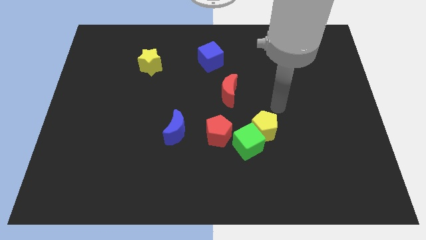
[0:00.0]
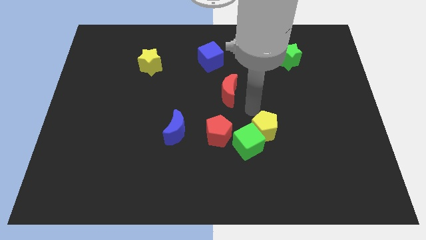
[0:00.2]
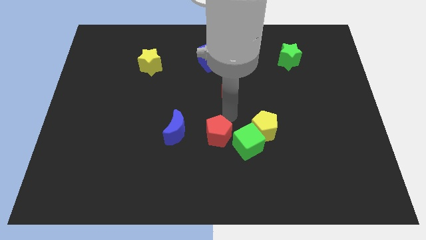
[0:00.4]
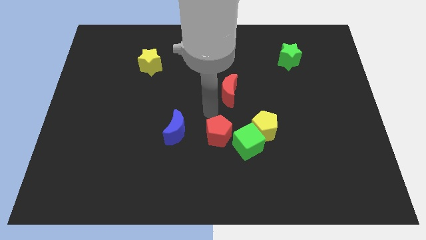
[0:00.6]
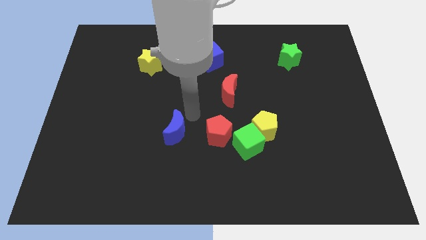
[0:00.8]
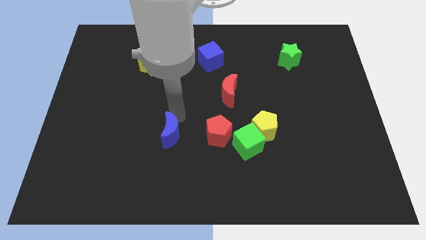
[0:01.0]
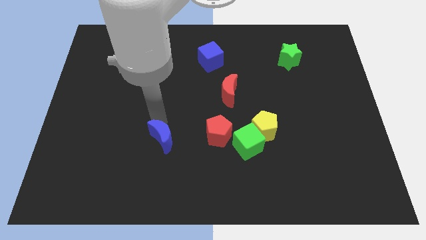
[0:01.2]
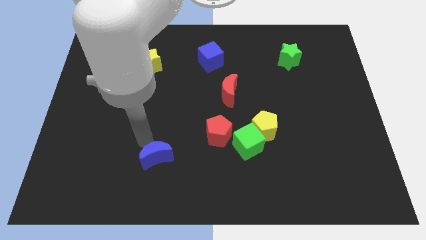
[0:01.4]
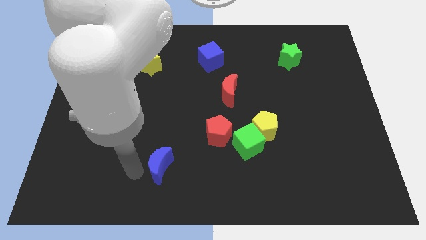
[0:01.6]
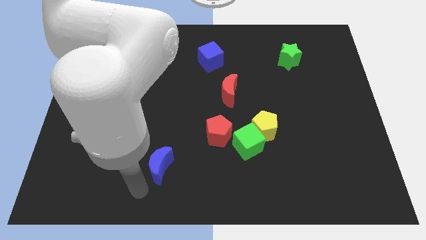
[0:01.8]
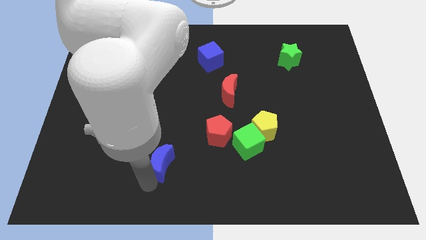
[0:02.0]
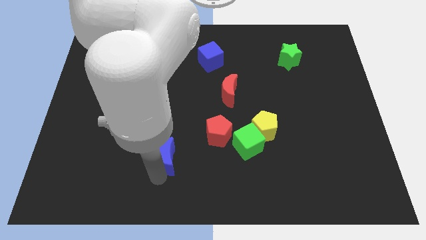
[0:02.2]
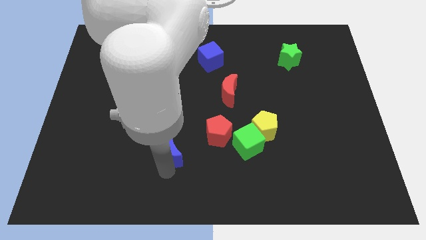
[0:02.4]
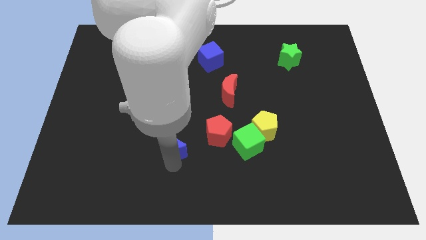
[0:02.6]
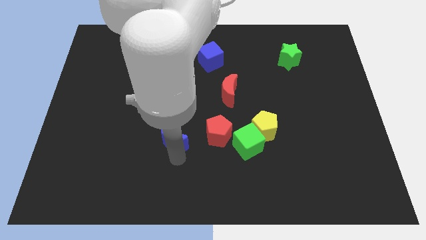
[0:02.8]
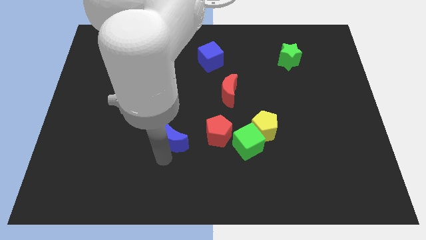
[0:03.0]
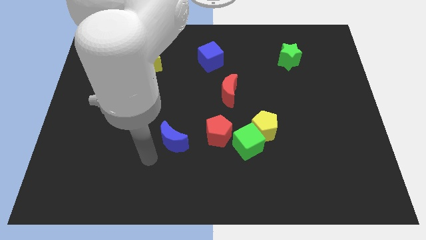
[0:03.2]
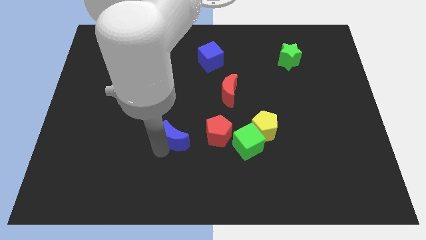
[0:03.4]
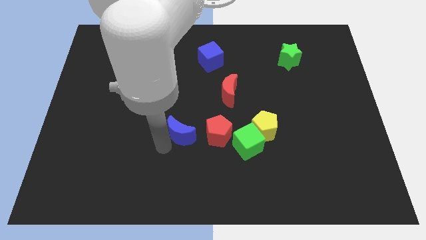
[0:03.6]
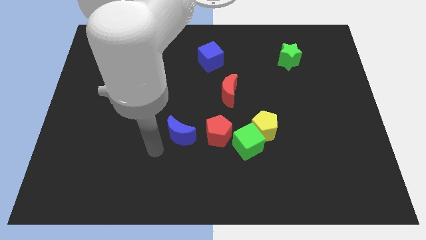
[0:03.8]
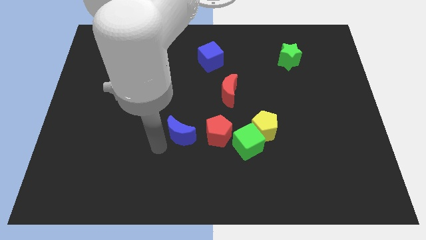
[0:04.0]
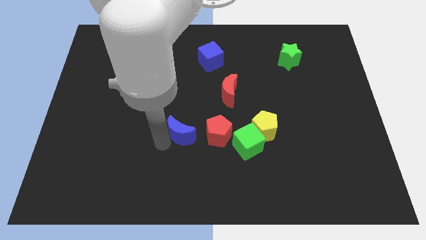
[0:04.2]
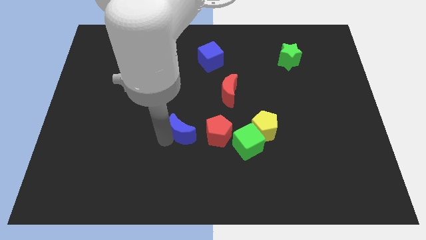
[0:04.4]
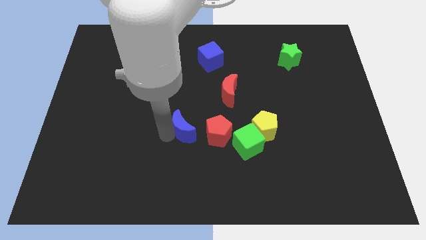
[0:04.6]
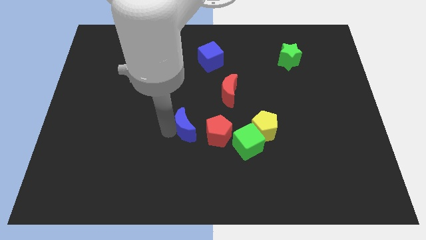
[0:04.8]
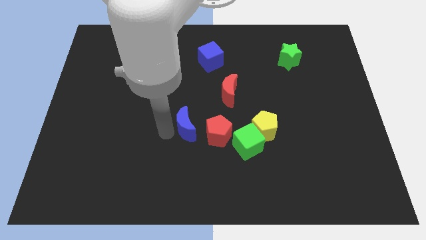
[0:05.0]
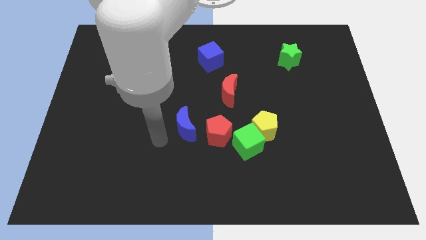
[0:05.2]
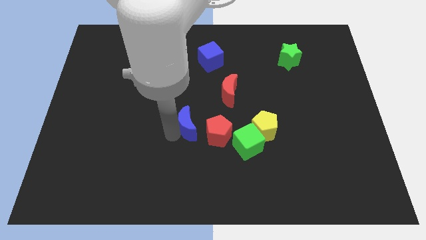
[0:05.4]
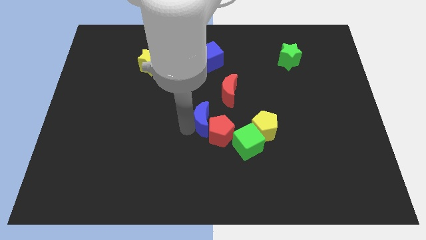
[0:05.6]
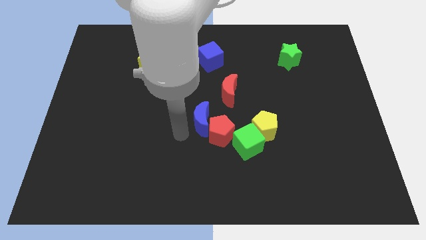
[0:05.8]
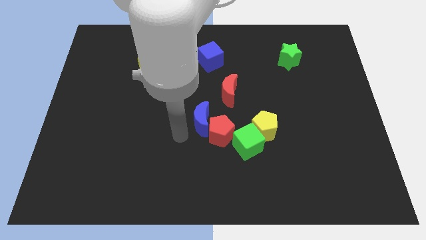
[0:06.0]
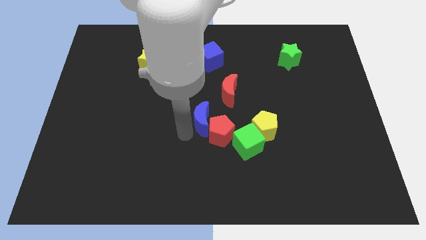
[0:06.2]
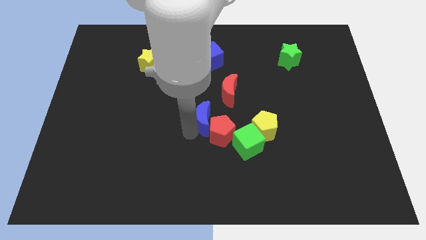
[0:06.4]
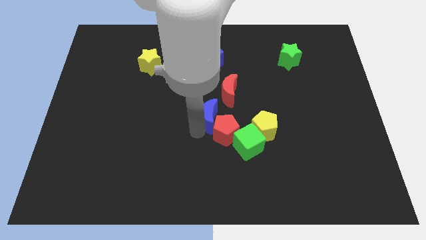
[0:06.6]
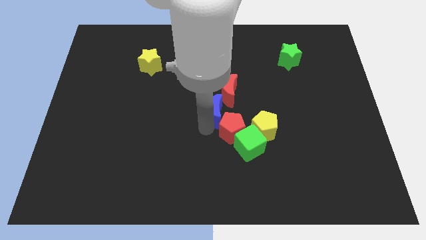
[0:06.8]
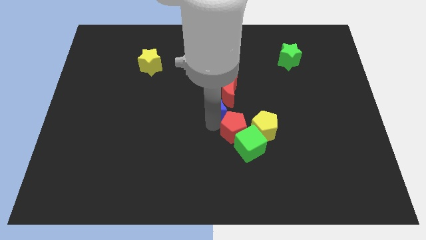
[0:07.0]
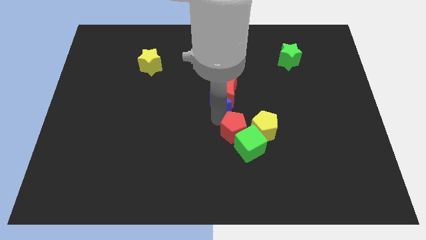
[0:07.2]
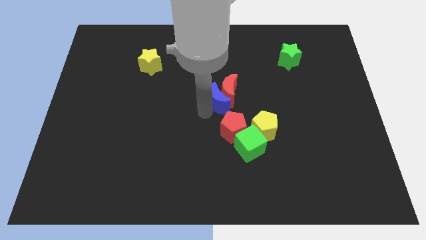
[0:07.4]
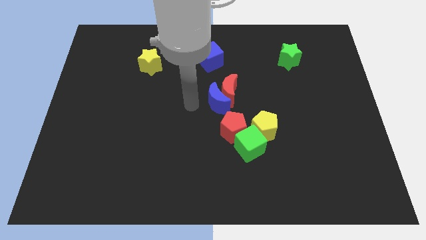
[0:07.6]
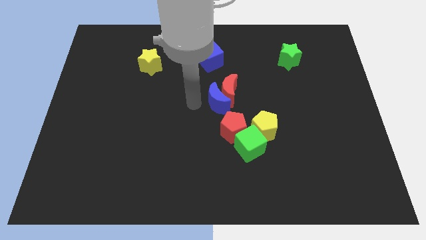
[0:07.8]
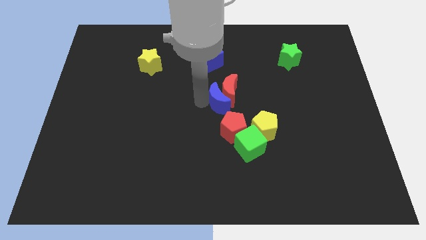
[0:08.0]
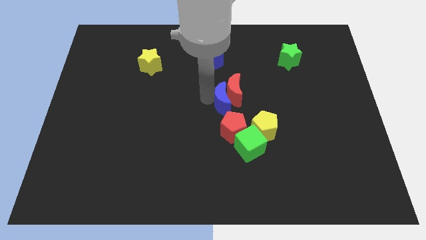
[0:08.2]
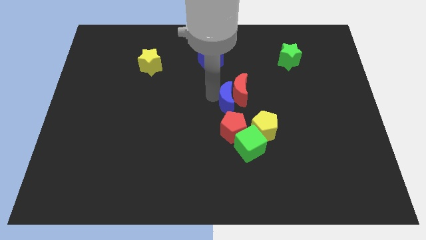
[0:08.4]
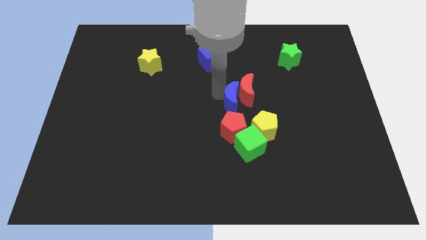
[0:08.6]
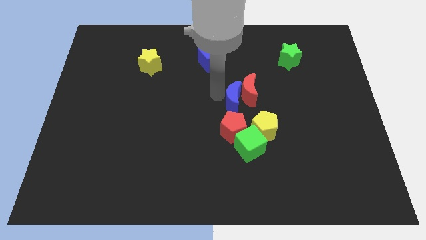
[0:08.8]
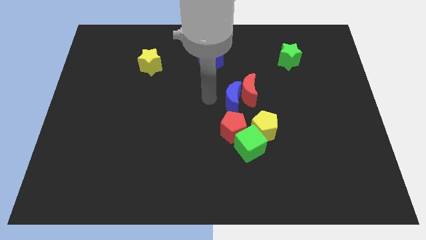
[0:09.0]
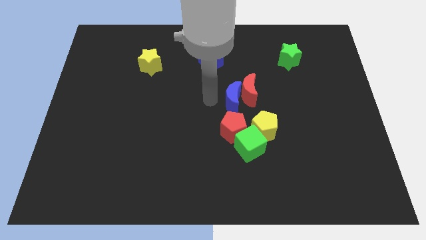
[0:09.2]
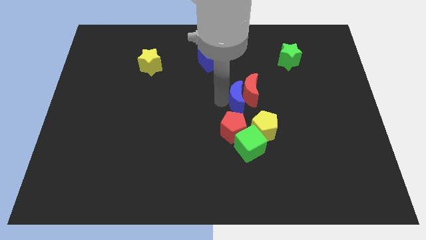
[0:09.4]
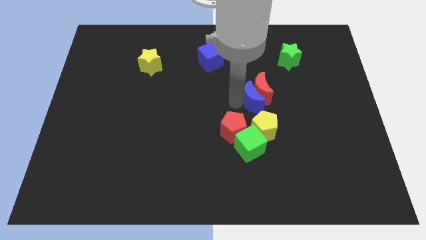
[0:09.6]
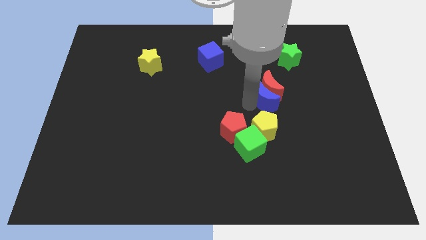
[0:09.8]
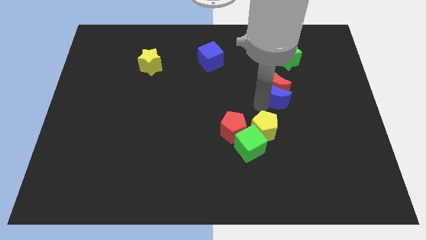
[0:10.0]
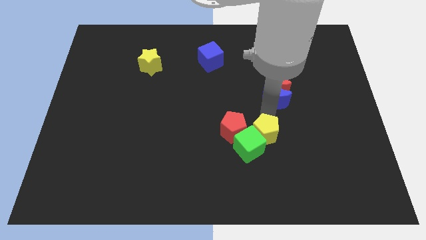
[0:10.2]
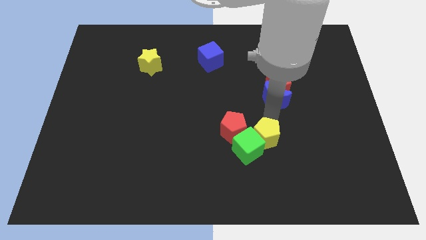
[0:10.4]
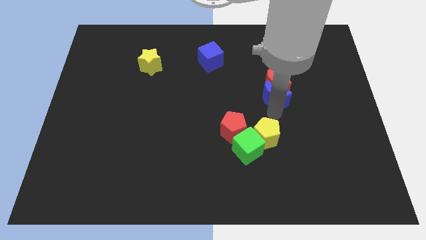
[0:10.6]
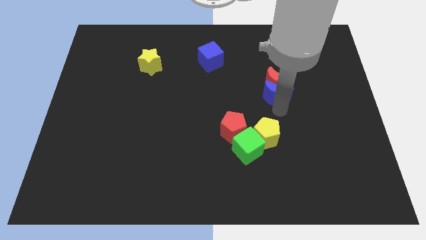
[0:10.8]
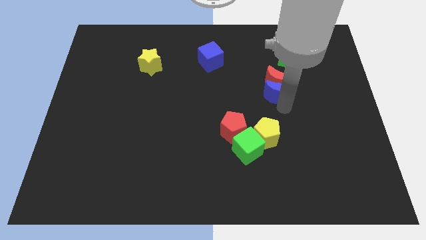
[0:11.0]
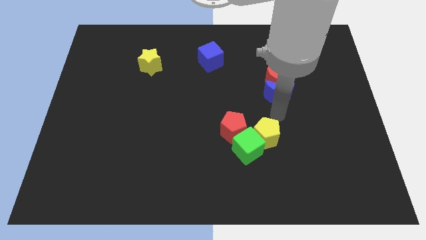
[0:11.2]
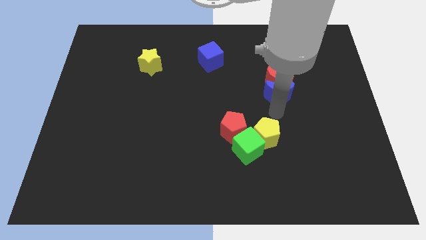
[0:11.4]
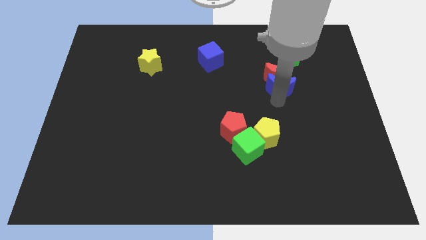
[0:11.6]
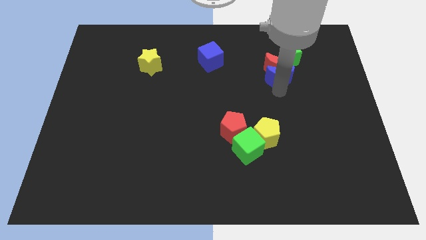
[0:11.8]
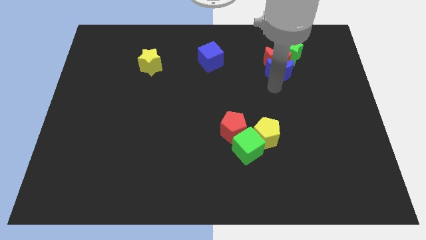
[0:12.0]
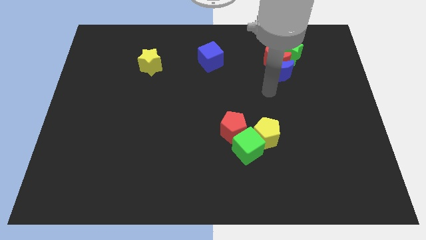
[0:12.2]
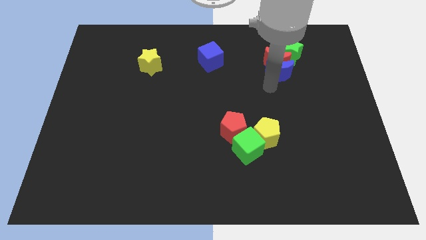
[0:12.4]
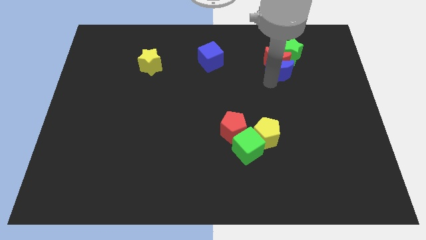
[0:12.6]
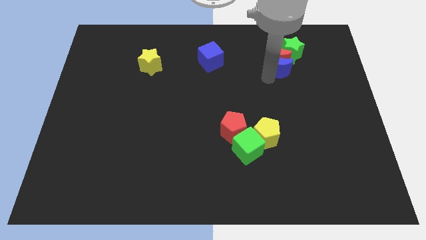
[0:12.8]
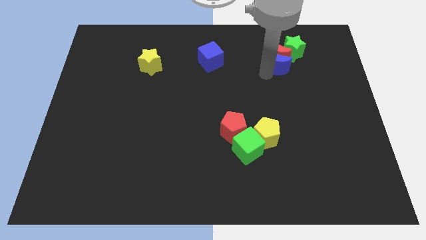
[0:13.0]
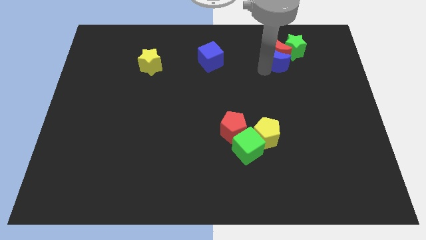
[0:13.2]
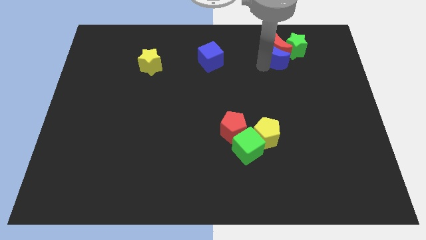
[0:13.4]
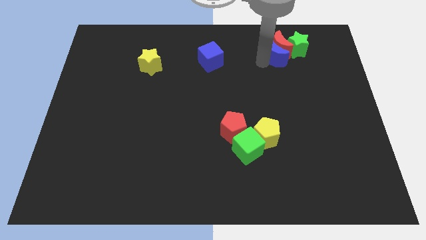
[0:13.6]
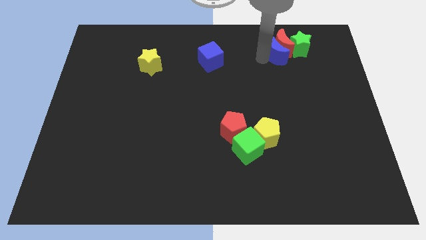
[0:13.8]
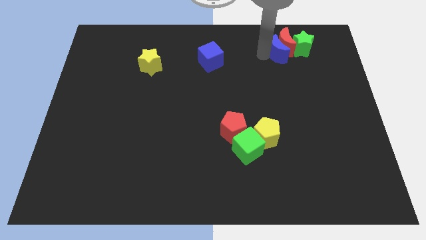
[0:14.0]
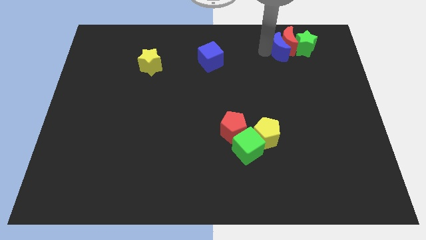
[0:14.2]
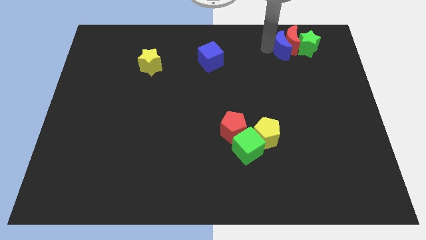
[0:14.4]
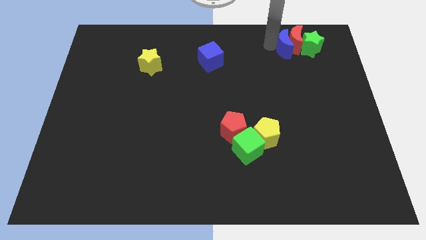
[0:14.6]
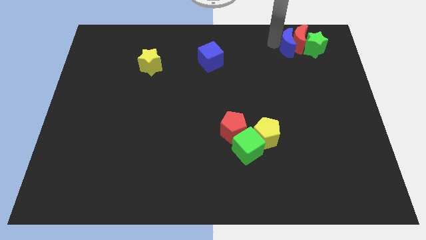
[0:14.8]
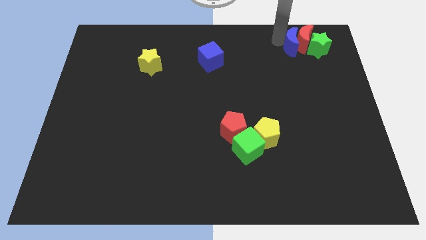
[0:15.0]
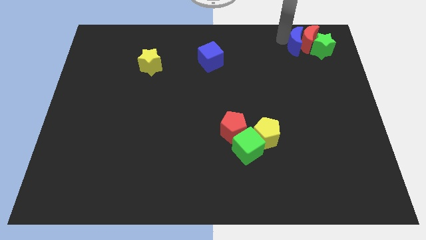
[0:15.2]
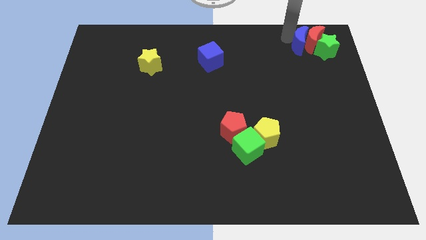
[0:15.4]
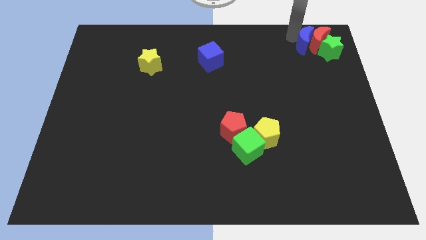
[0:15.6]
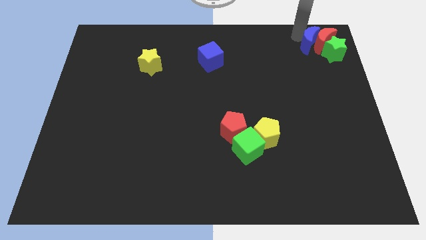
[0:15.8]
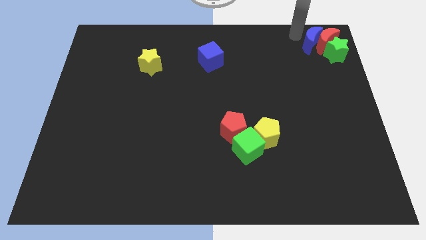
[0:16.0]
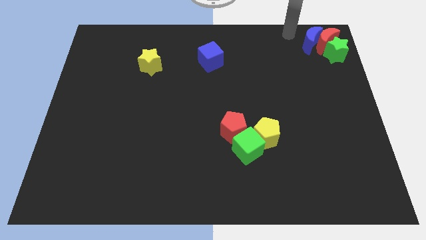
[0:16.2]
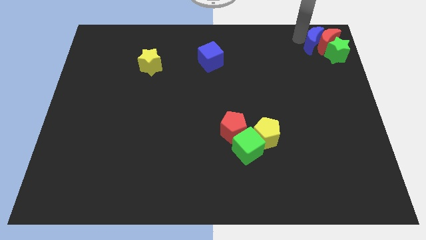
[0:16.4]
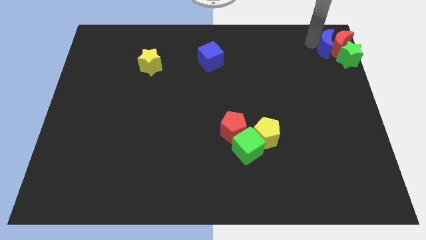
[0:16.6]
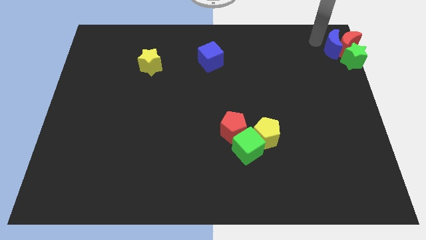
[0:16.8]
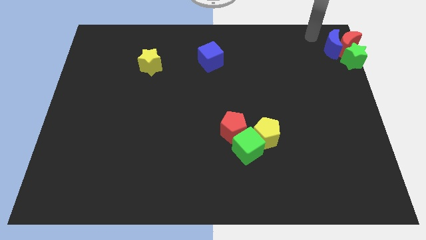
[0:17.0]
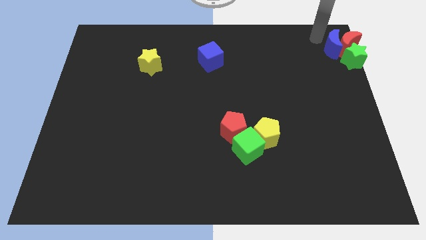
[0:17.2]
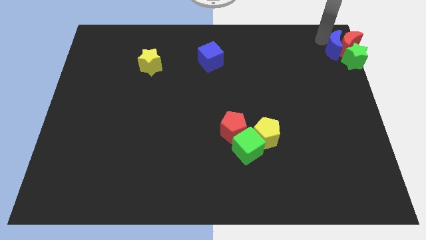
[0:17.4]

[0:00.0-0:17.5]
slide the blue moon close to the green star
